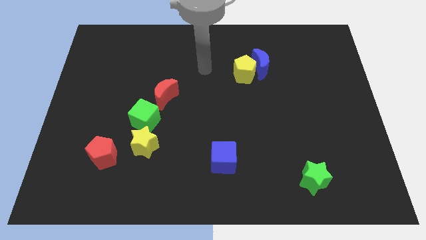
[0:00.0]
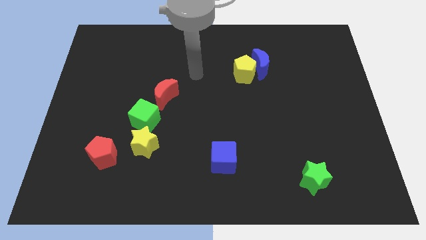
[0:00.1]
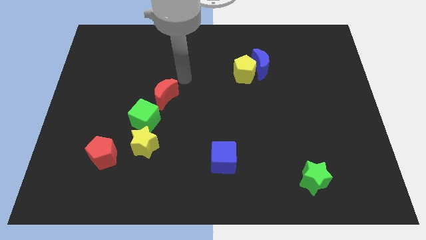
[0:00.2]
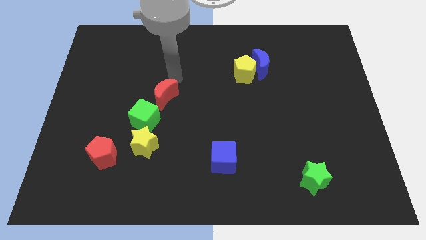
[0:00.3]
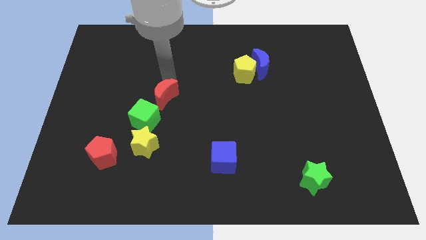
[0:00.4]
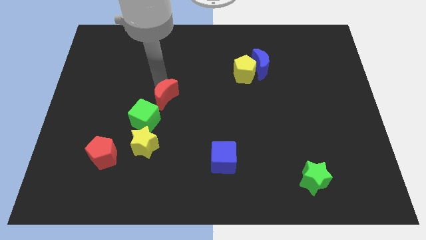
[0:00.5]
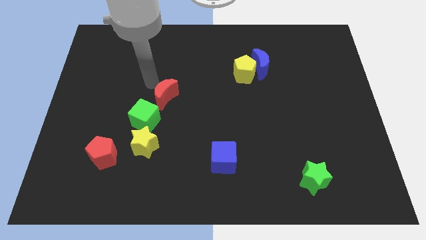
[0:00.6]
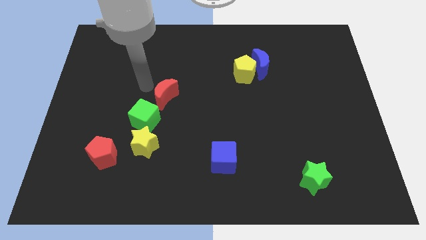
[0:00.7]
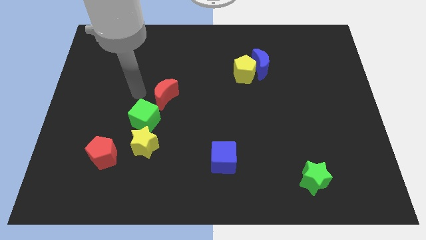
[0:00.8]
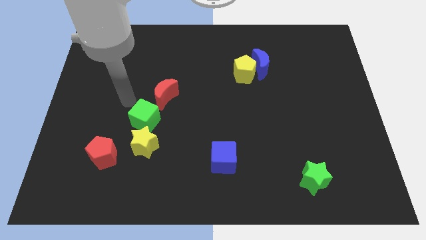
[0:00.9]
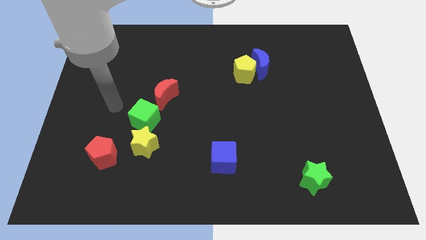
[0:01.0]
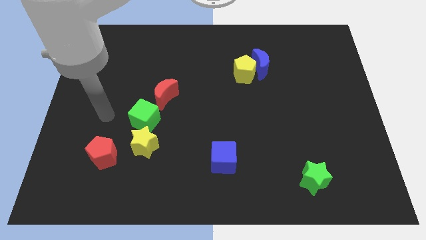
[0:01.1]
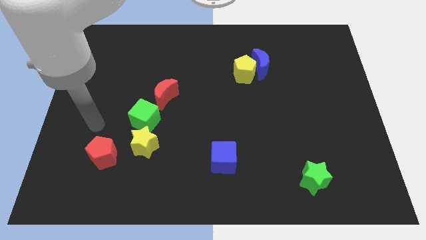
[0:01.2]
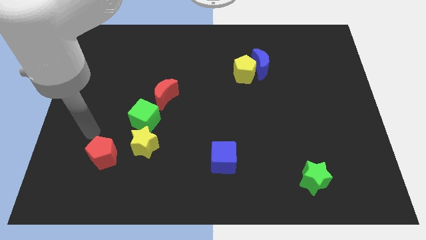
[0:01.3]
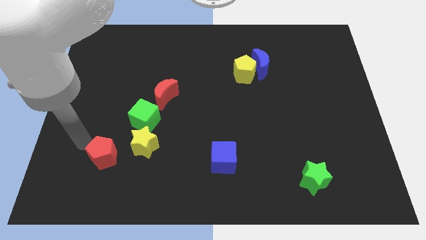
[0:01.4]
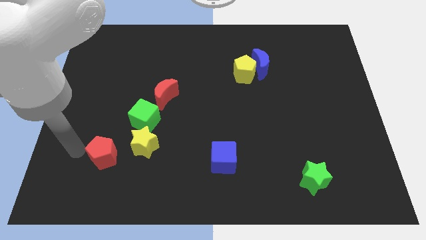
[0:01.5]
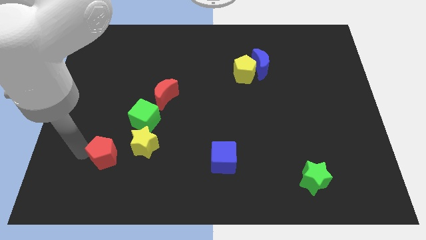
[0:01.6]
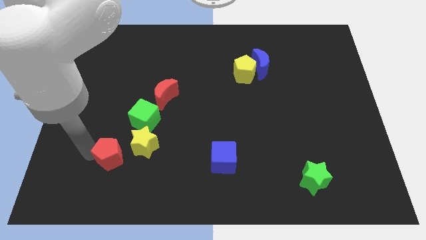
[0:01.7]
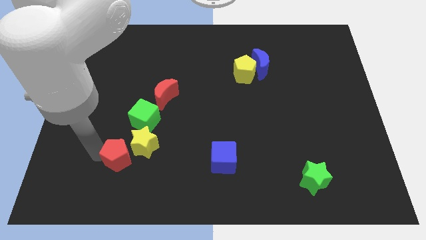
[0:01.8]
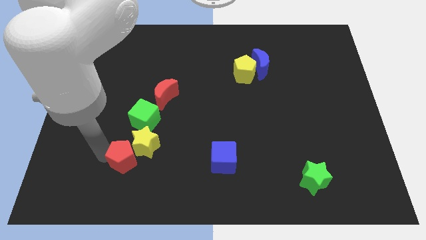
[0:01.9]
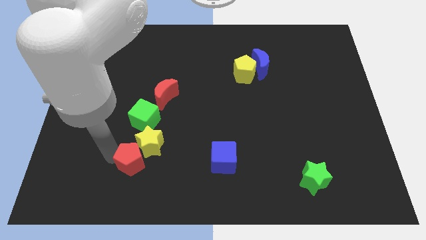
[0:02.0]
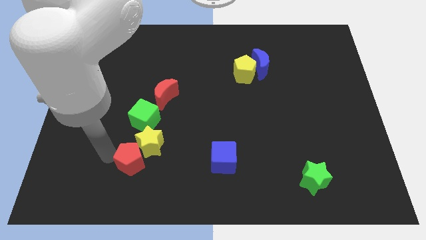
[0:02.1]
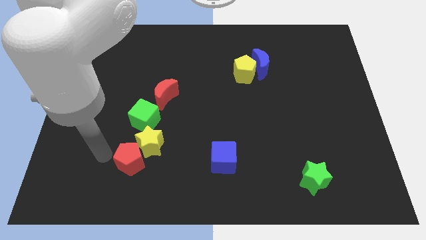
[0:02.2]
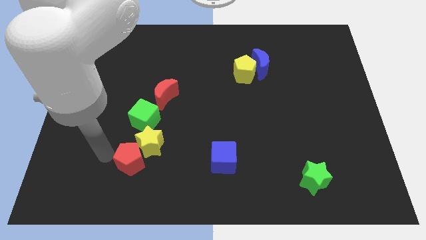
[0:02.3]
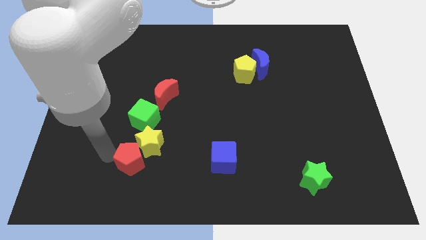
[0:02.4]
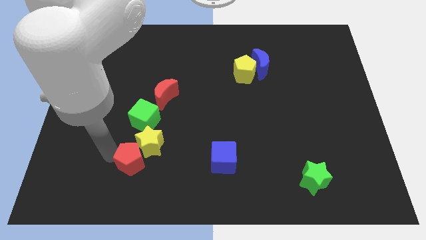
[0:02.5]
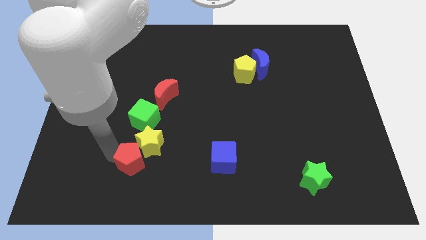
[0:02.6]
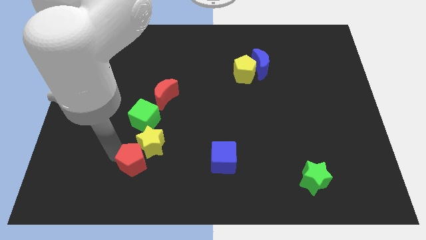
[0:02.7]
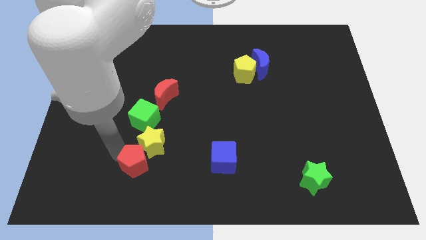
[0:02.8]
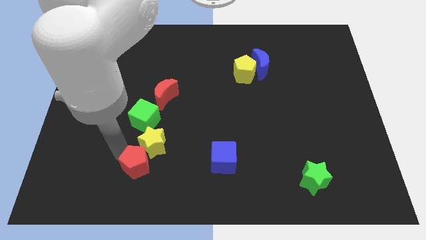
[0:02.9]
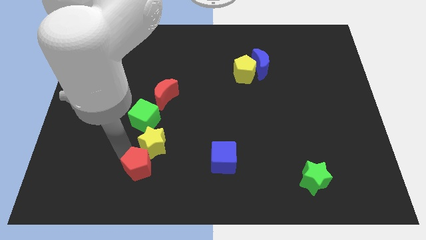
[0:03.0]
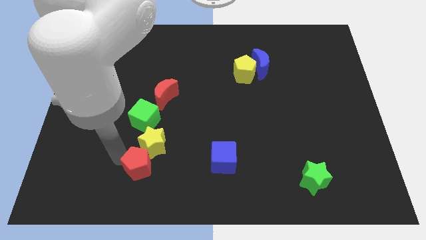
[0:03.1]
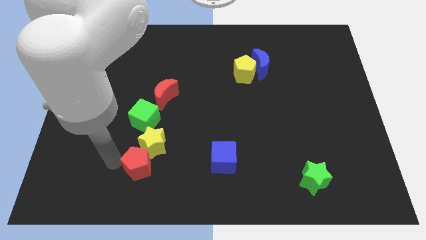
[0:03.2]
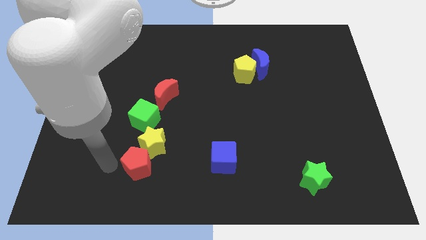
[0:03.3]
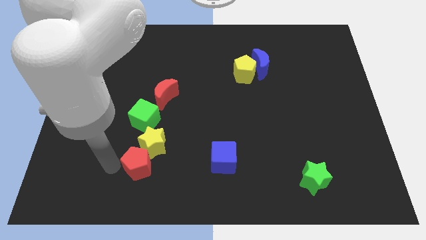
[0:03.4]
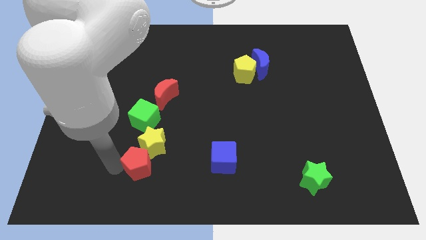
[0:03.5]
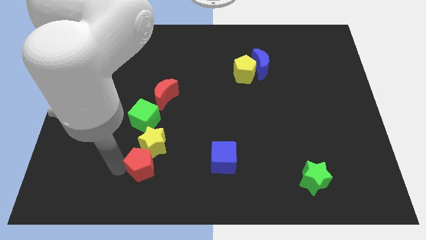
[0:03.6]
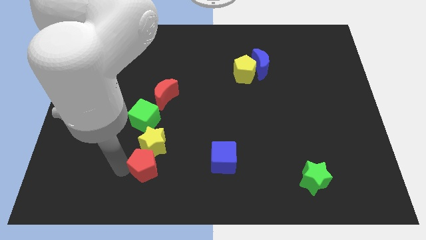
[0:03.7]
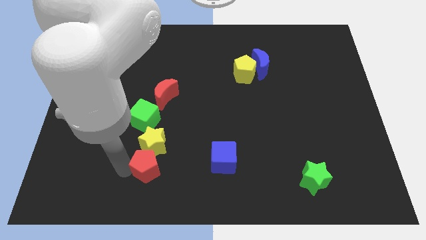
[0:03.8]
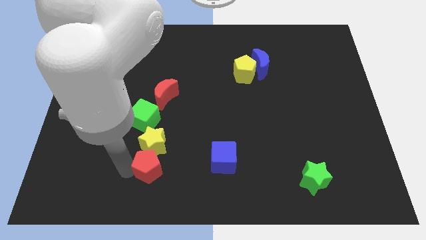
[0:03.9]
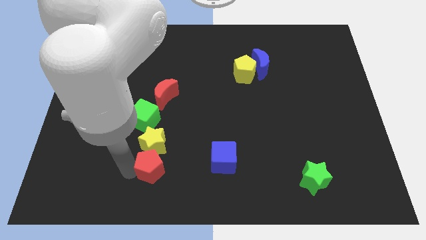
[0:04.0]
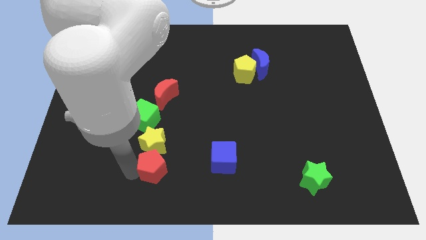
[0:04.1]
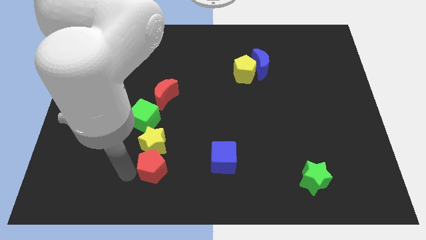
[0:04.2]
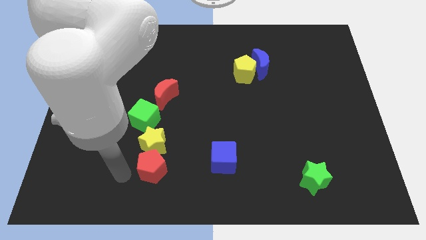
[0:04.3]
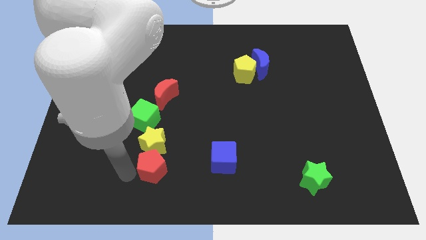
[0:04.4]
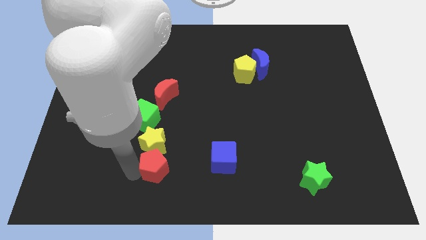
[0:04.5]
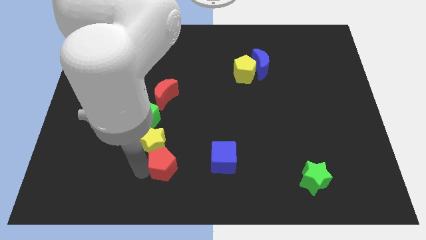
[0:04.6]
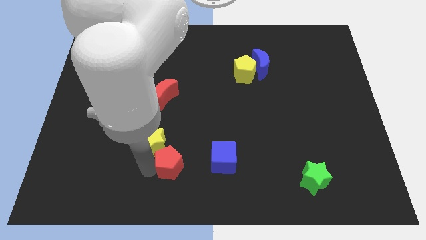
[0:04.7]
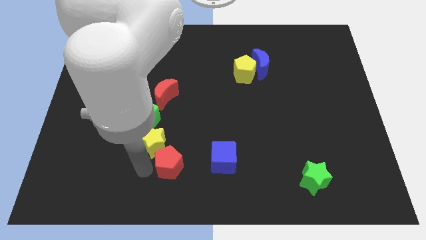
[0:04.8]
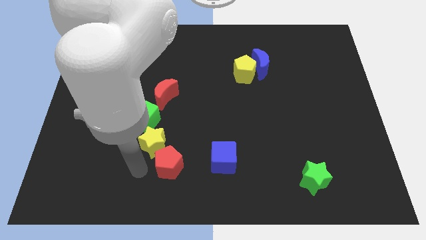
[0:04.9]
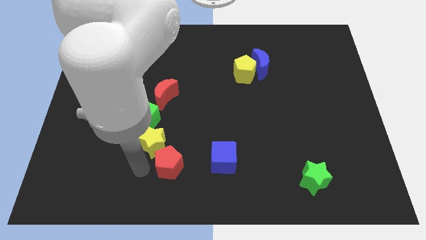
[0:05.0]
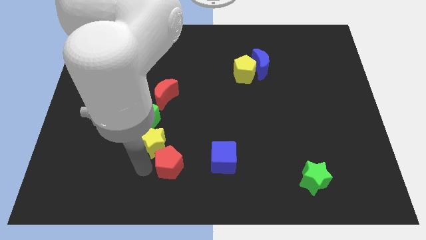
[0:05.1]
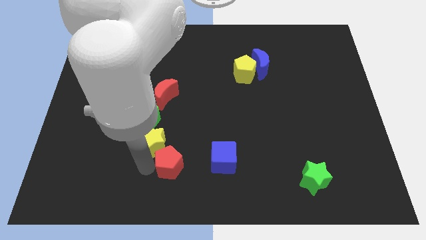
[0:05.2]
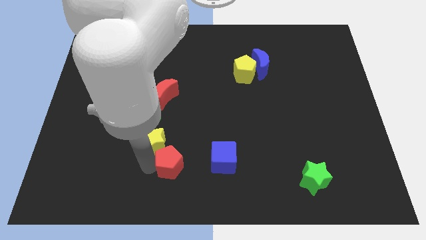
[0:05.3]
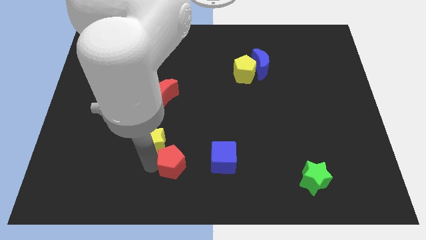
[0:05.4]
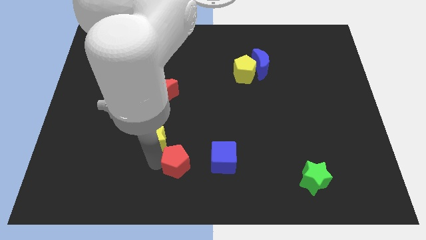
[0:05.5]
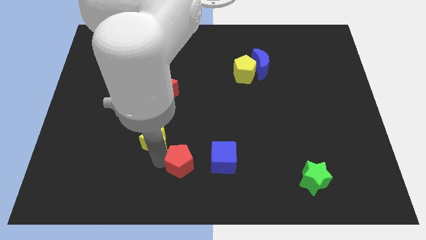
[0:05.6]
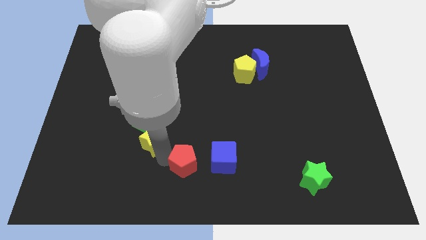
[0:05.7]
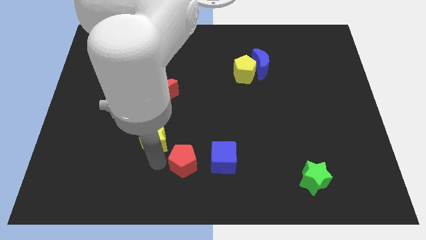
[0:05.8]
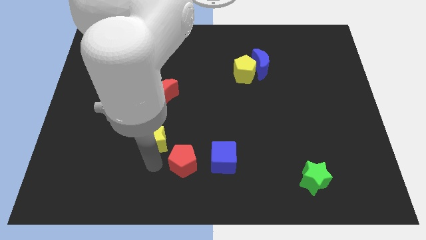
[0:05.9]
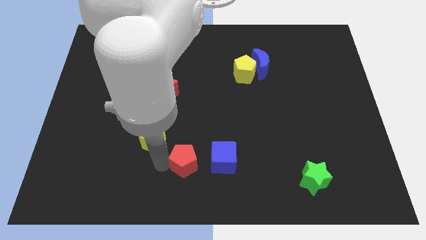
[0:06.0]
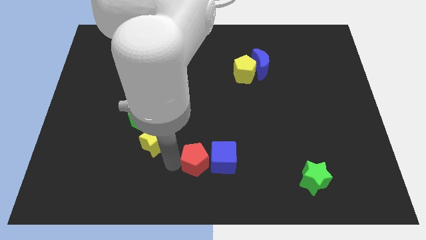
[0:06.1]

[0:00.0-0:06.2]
push the red pentagon close to the blue cube

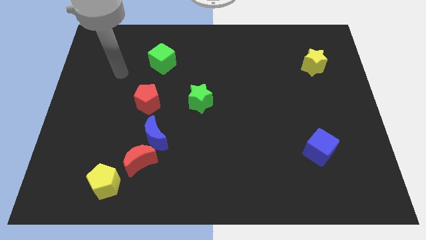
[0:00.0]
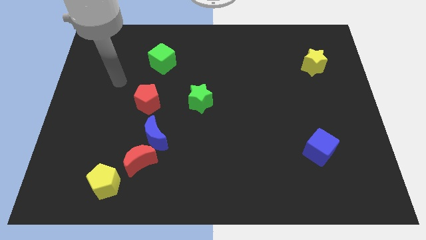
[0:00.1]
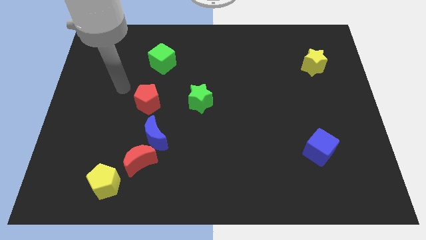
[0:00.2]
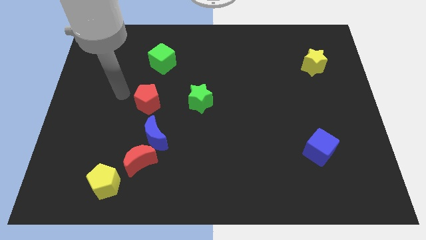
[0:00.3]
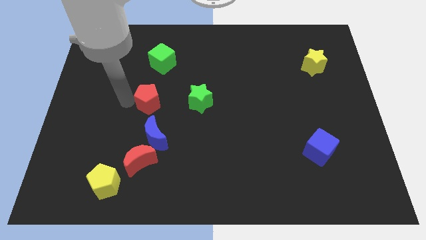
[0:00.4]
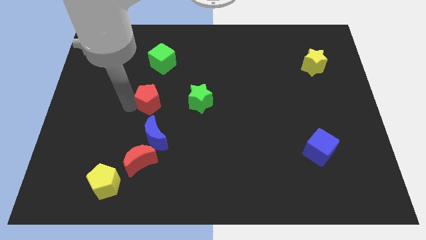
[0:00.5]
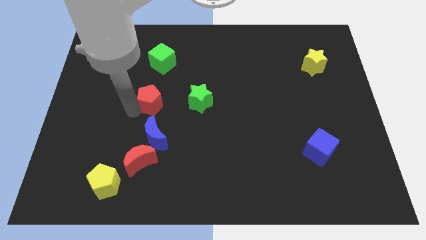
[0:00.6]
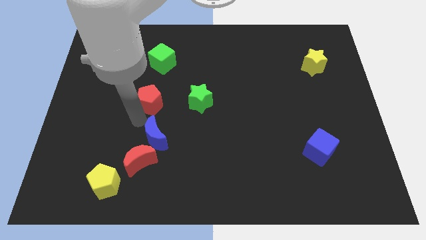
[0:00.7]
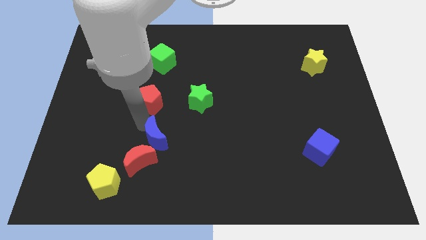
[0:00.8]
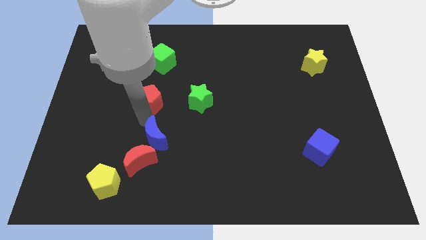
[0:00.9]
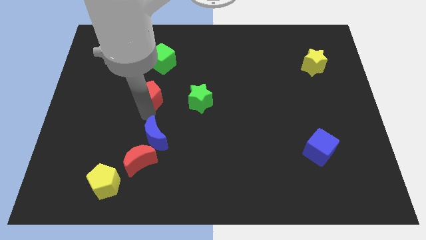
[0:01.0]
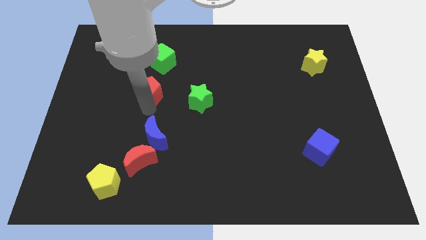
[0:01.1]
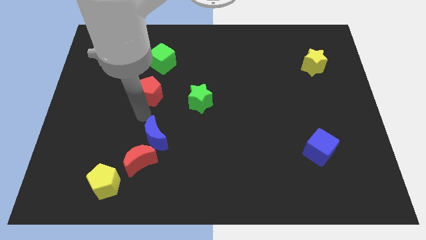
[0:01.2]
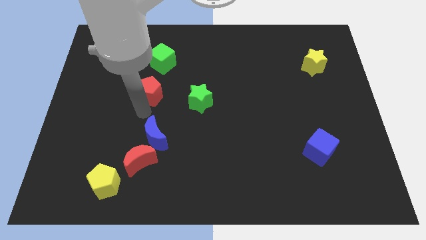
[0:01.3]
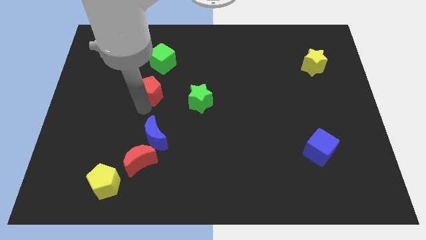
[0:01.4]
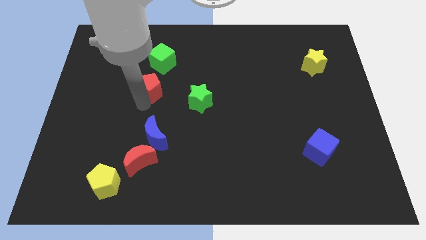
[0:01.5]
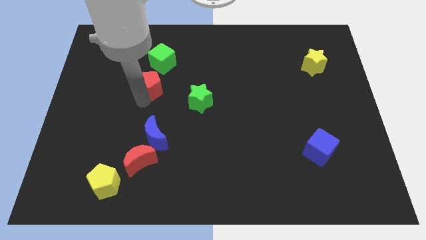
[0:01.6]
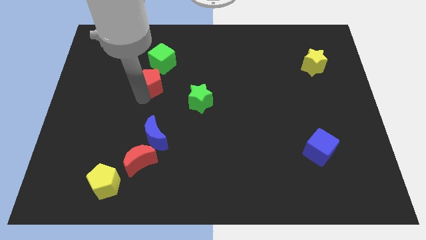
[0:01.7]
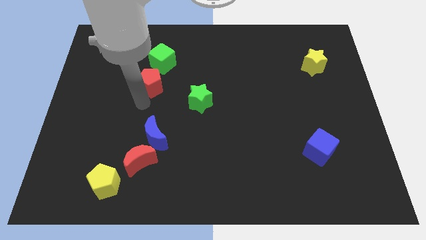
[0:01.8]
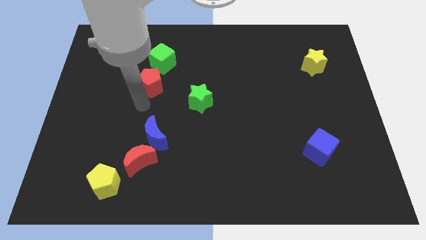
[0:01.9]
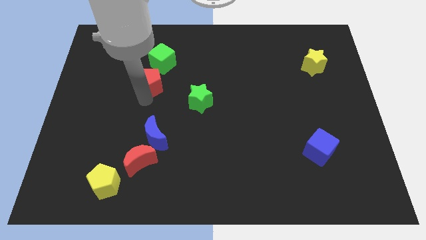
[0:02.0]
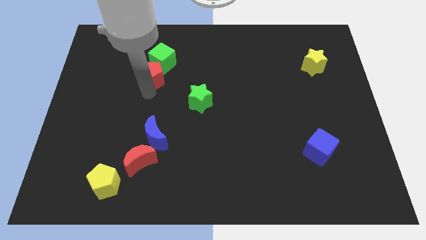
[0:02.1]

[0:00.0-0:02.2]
slide the red pentagon next to the green cube
